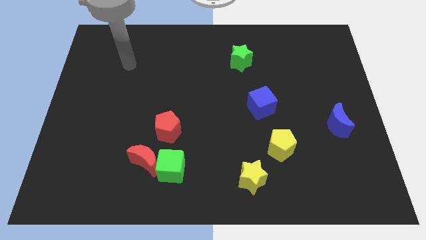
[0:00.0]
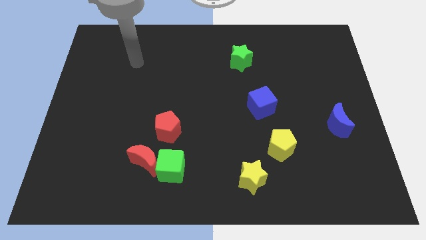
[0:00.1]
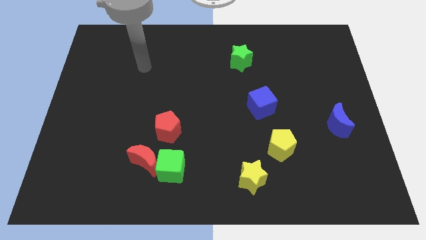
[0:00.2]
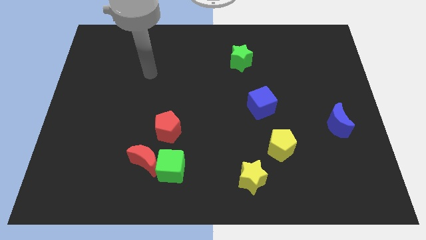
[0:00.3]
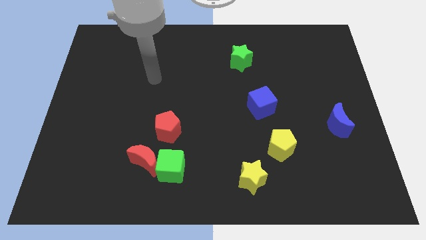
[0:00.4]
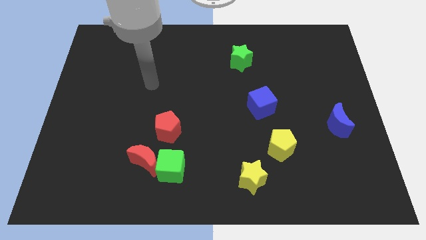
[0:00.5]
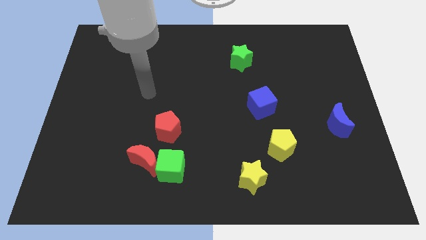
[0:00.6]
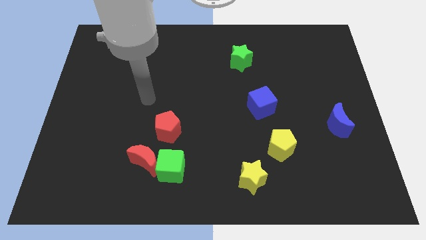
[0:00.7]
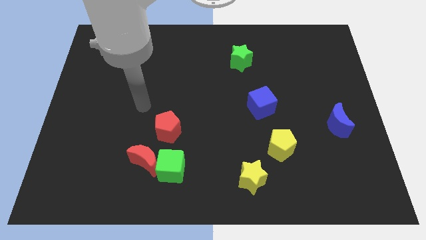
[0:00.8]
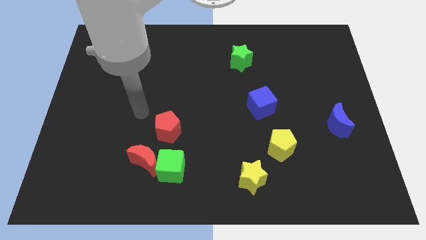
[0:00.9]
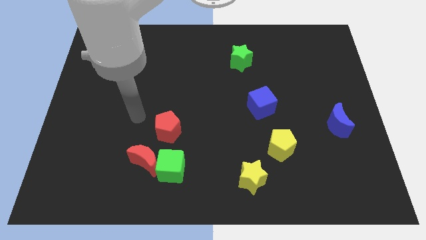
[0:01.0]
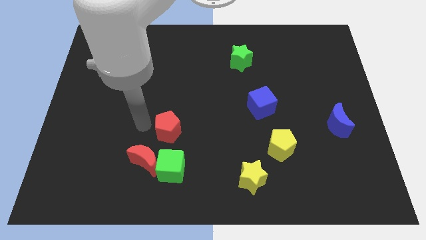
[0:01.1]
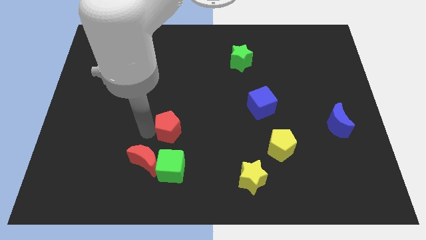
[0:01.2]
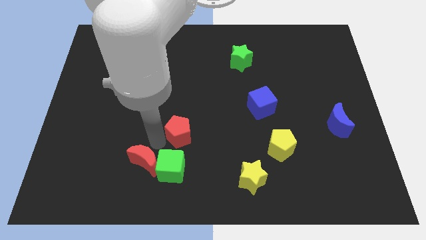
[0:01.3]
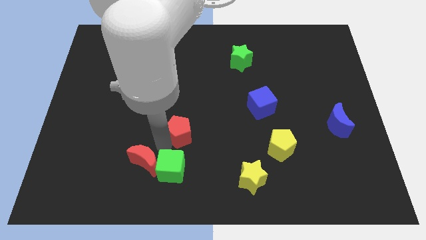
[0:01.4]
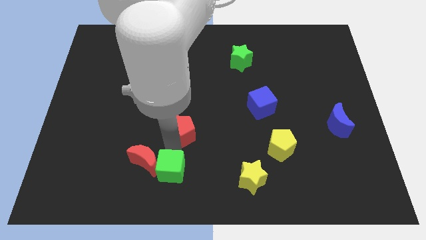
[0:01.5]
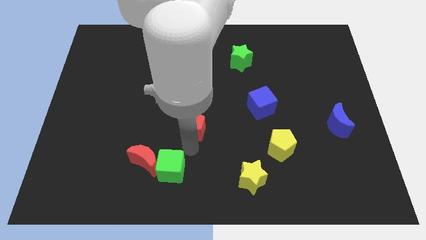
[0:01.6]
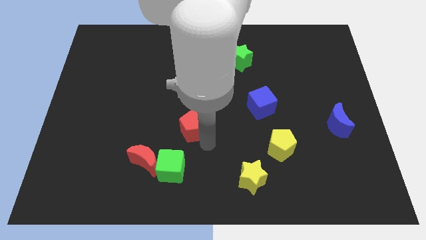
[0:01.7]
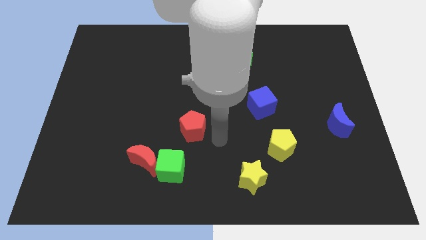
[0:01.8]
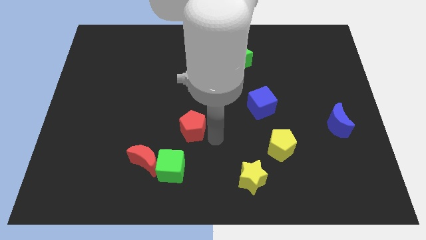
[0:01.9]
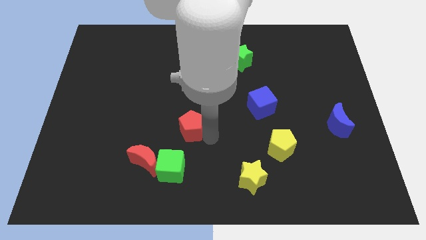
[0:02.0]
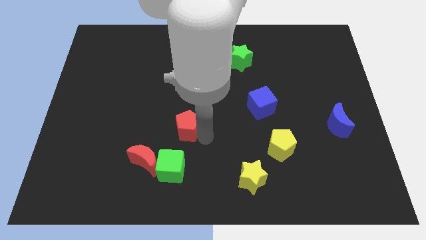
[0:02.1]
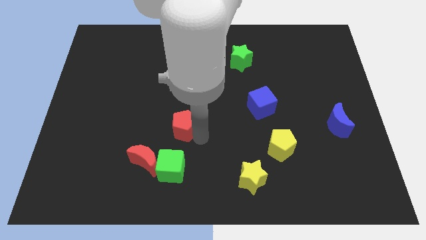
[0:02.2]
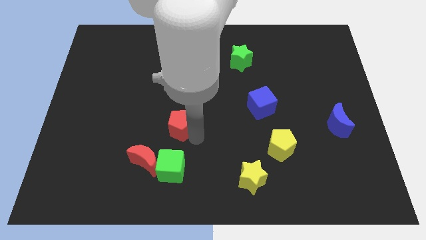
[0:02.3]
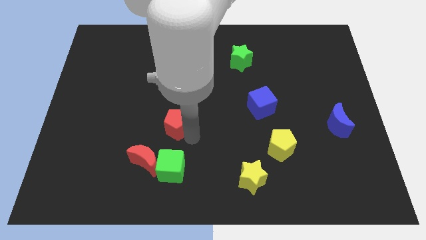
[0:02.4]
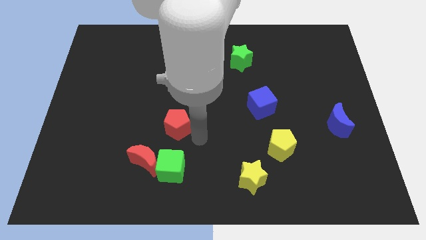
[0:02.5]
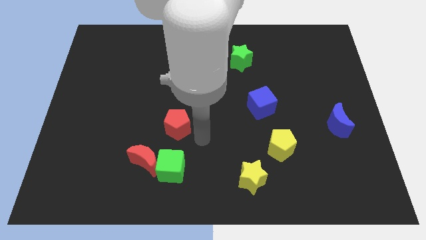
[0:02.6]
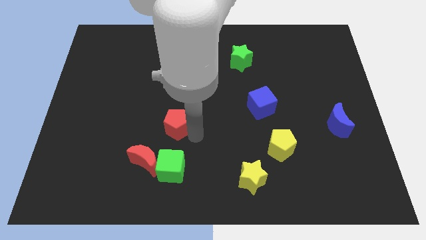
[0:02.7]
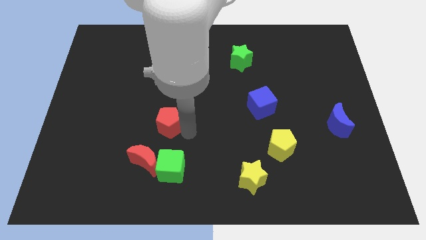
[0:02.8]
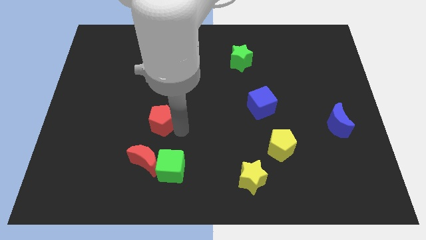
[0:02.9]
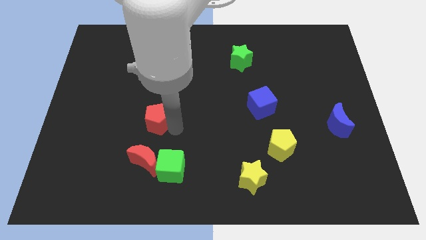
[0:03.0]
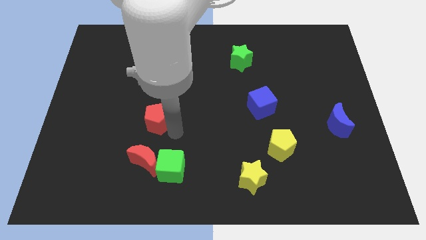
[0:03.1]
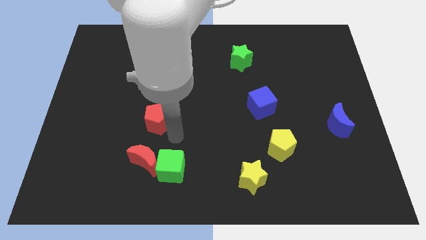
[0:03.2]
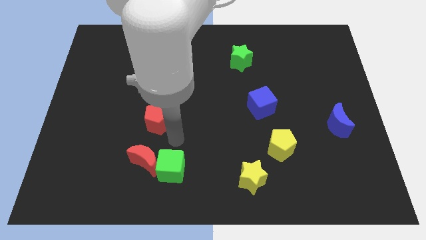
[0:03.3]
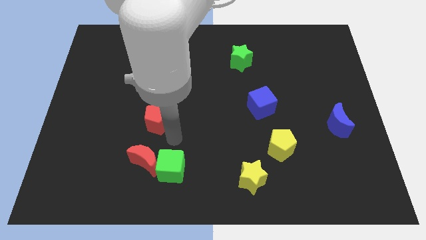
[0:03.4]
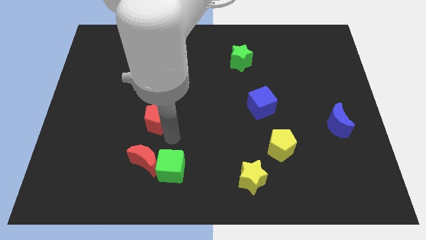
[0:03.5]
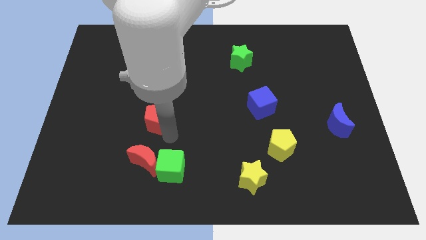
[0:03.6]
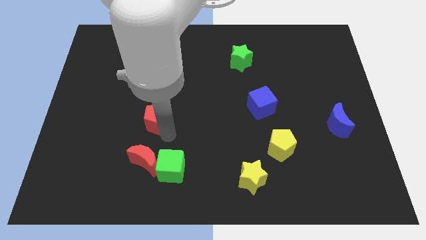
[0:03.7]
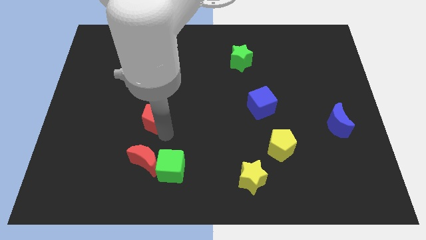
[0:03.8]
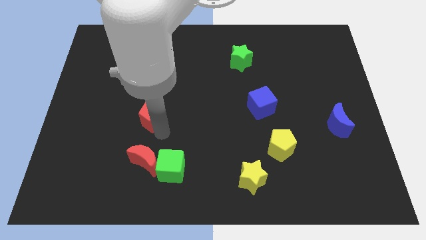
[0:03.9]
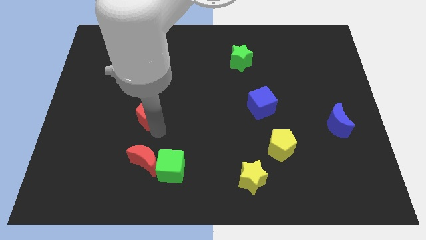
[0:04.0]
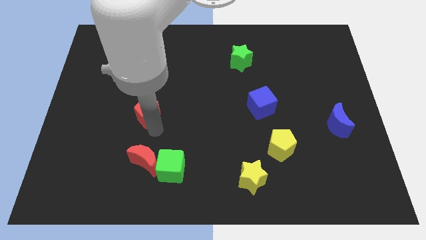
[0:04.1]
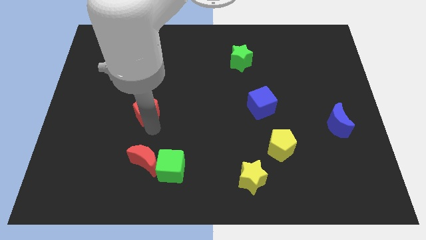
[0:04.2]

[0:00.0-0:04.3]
slide the red pentagon somewhat upwards and then to the left

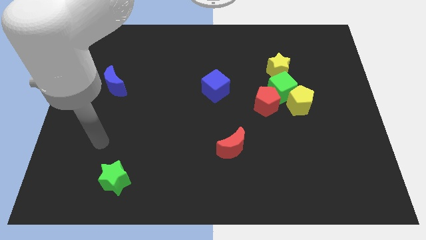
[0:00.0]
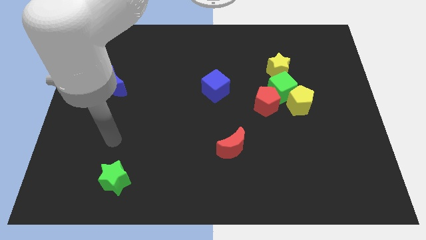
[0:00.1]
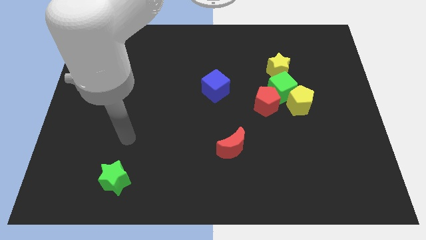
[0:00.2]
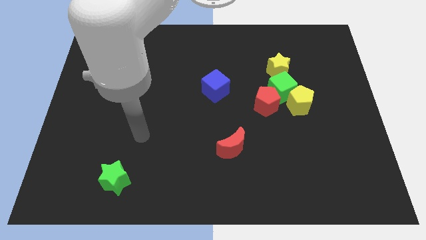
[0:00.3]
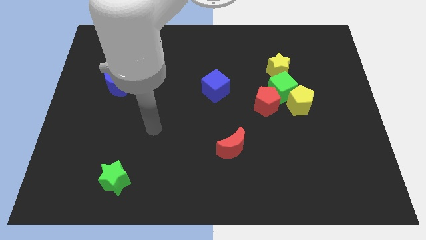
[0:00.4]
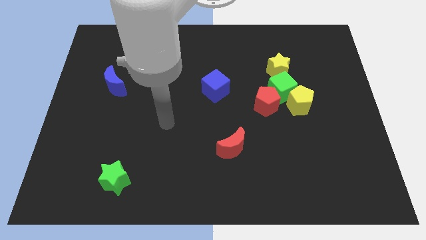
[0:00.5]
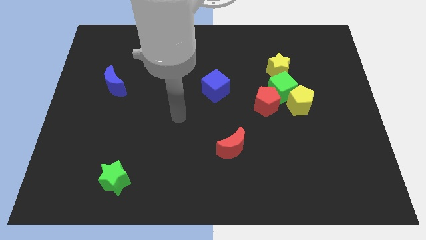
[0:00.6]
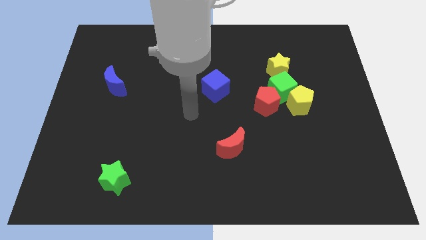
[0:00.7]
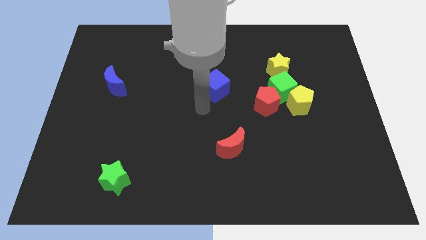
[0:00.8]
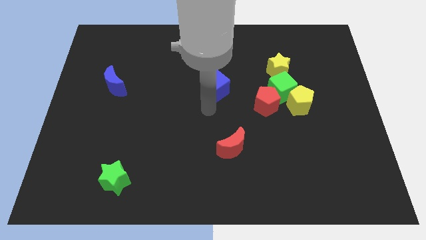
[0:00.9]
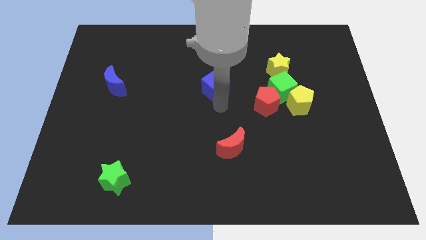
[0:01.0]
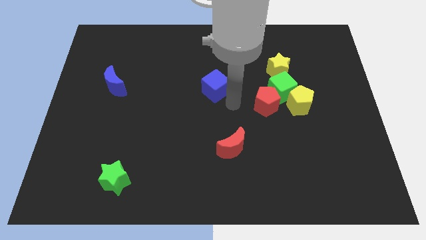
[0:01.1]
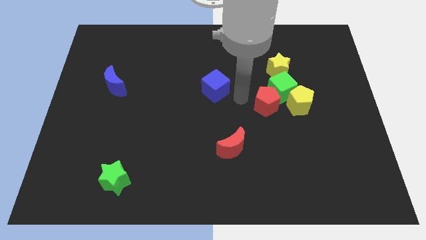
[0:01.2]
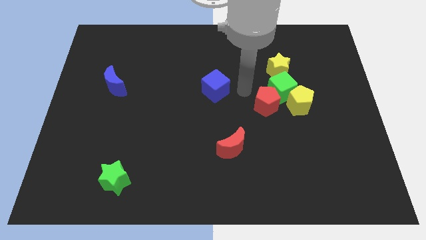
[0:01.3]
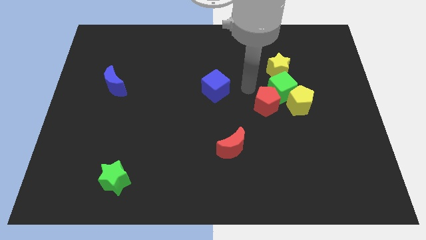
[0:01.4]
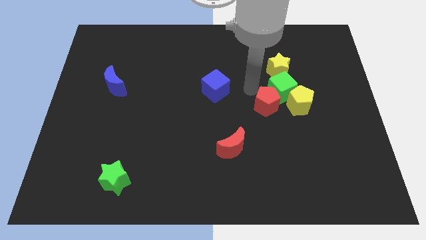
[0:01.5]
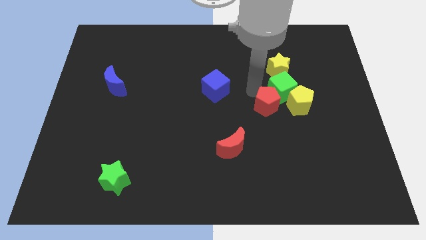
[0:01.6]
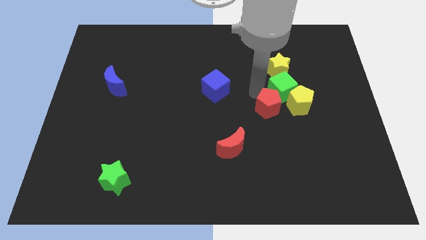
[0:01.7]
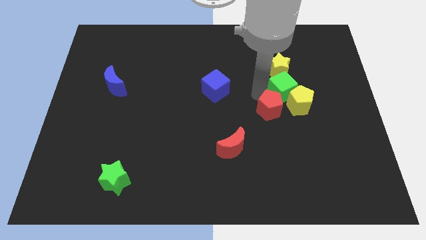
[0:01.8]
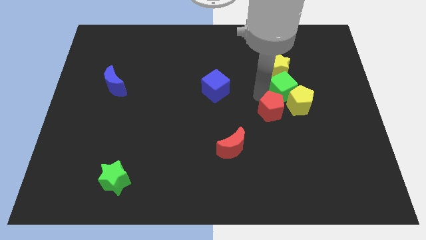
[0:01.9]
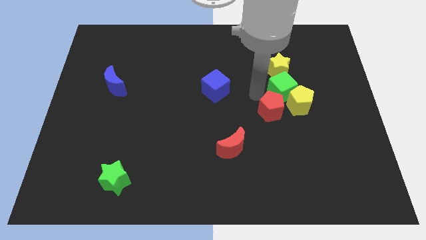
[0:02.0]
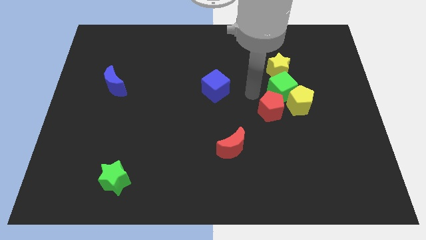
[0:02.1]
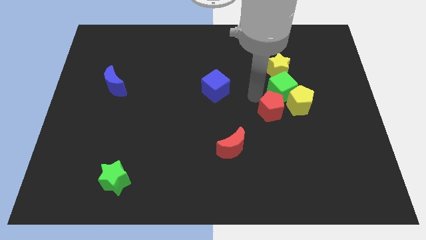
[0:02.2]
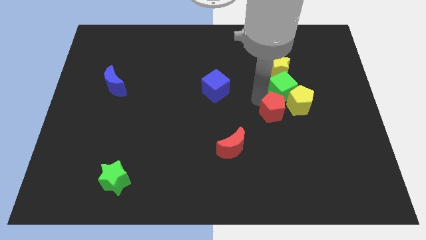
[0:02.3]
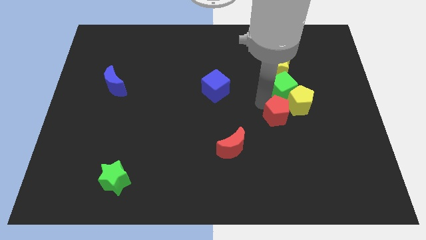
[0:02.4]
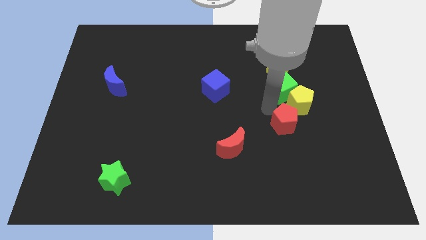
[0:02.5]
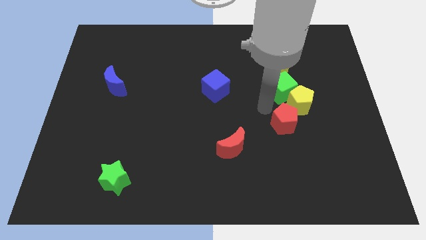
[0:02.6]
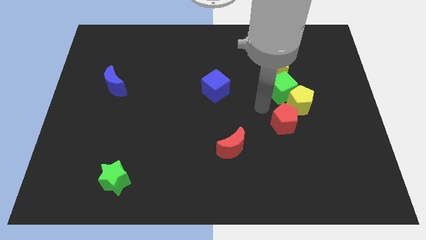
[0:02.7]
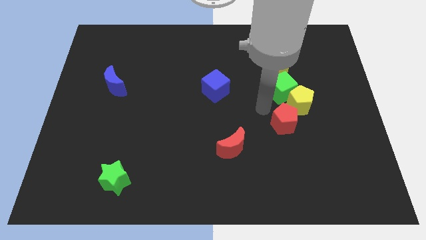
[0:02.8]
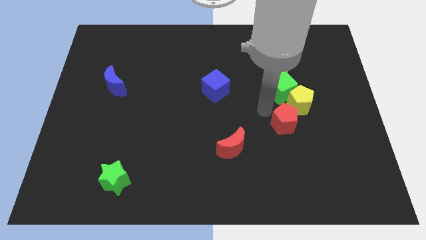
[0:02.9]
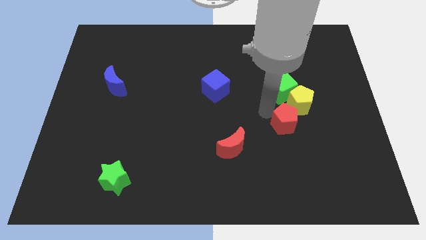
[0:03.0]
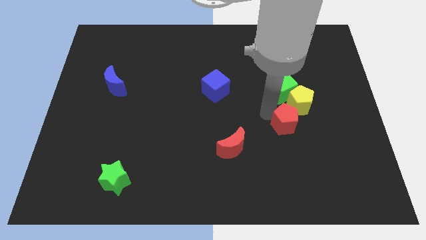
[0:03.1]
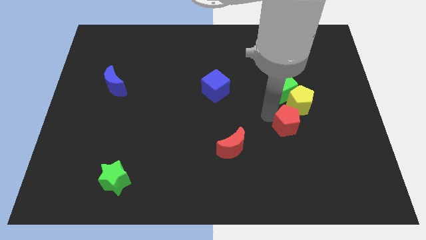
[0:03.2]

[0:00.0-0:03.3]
slightly slide the red pentagon down and to the right

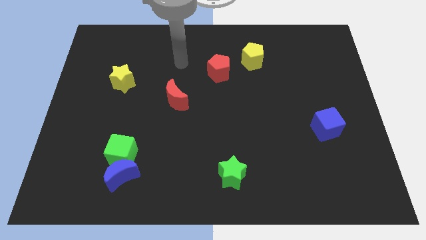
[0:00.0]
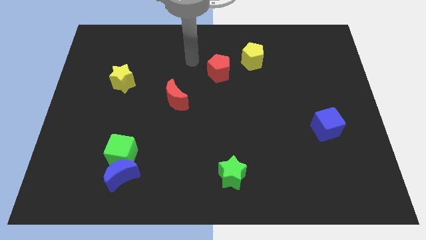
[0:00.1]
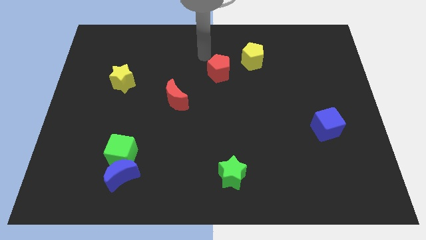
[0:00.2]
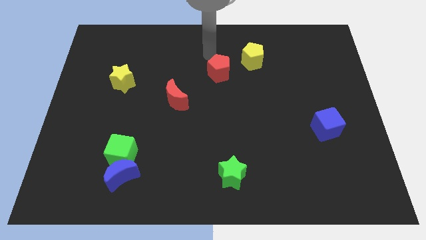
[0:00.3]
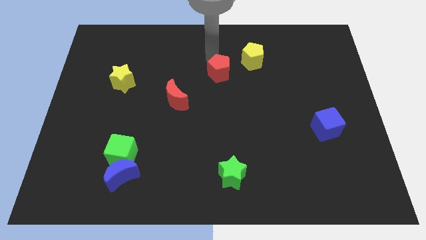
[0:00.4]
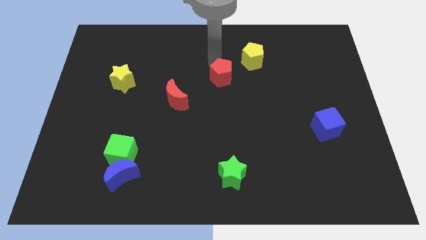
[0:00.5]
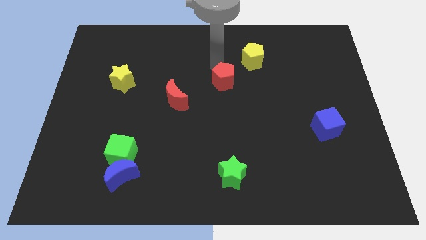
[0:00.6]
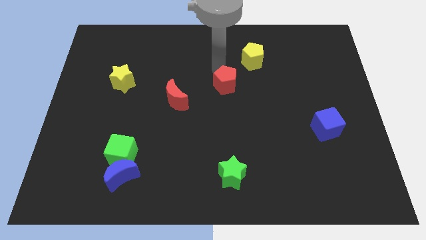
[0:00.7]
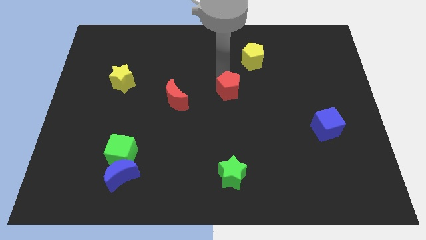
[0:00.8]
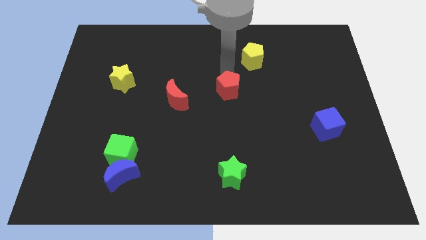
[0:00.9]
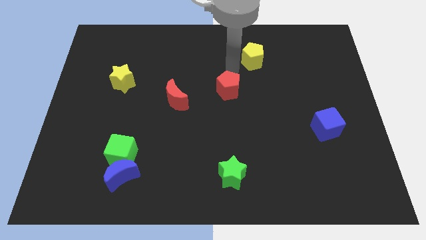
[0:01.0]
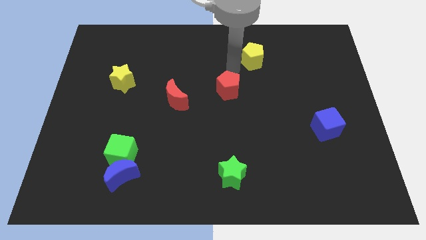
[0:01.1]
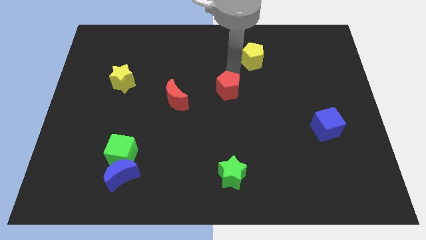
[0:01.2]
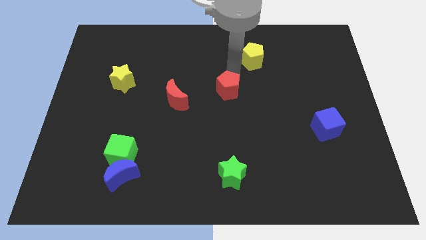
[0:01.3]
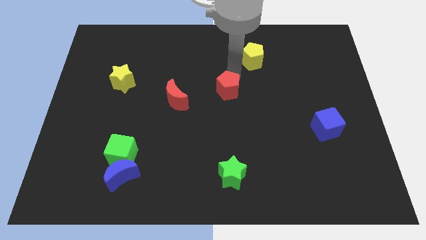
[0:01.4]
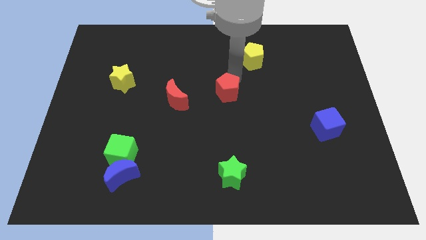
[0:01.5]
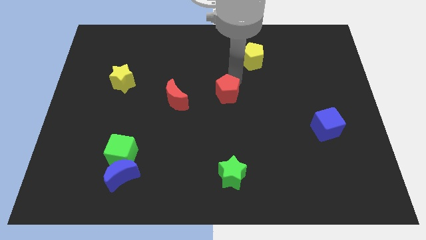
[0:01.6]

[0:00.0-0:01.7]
slide the red pentagon somewhat down
